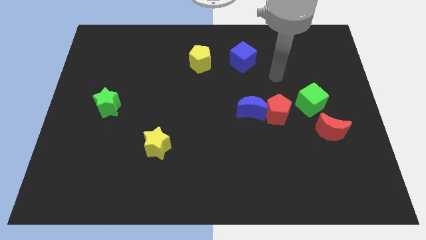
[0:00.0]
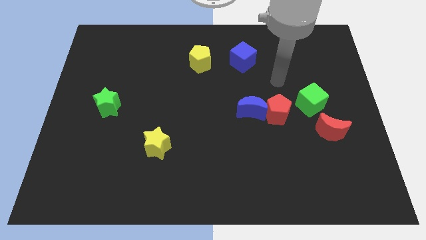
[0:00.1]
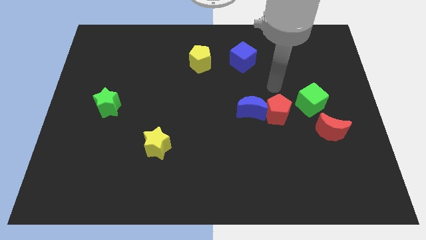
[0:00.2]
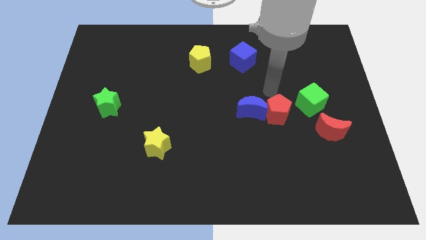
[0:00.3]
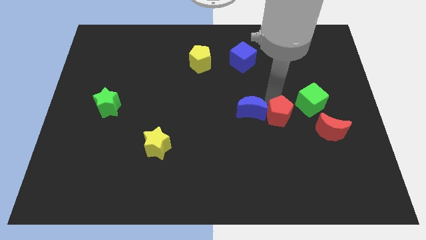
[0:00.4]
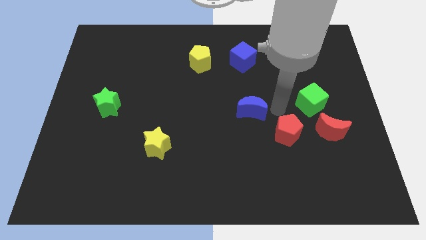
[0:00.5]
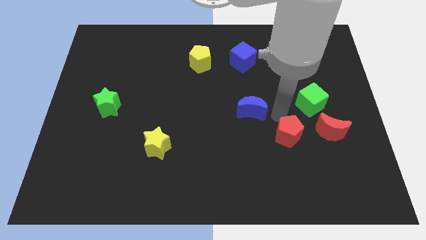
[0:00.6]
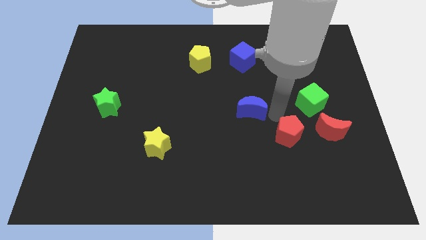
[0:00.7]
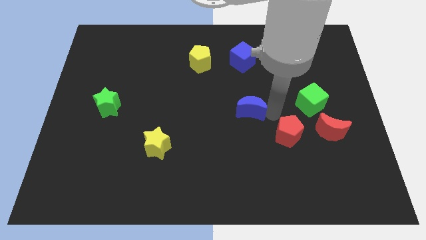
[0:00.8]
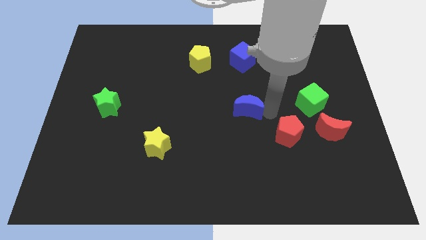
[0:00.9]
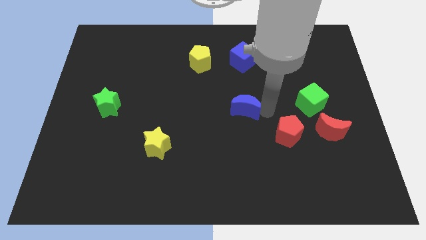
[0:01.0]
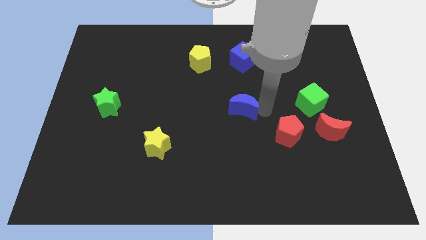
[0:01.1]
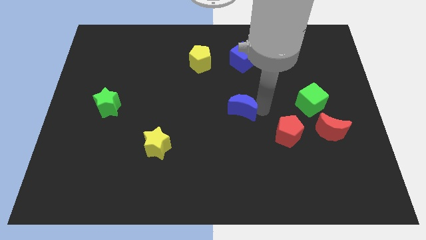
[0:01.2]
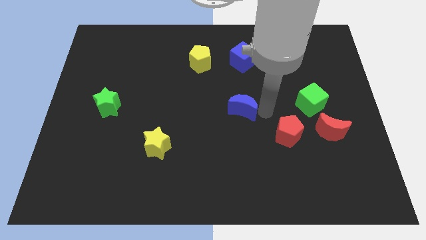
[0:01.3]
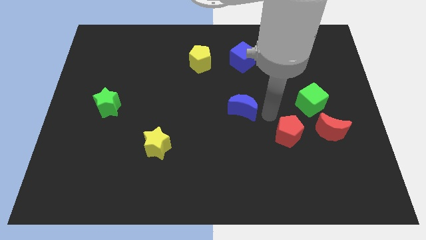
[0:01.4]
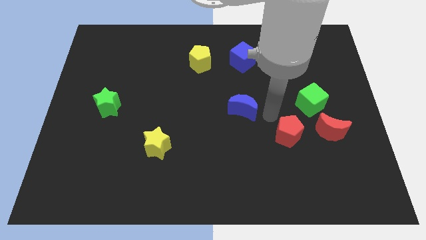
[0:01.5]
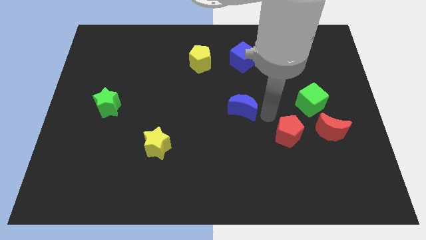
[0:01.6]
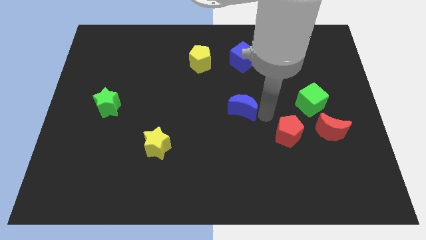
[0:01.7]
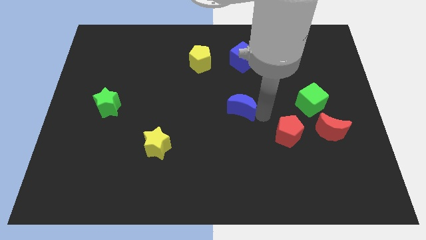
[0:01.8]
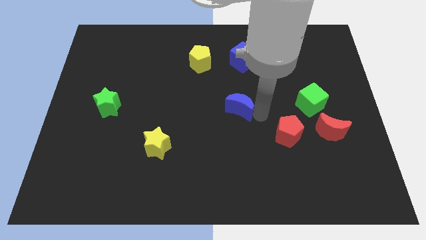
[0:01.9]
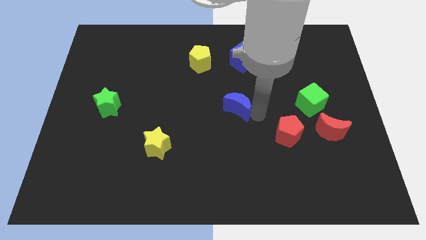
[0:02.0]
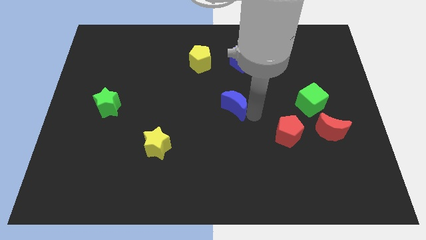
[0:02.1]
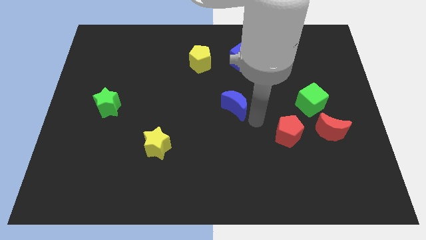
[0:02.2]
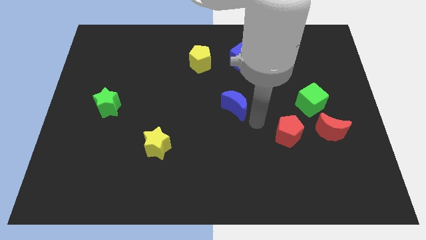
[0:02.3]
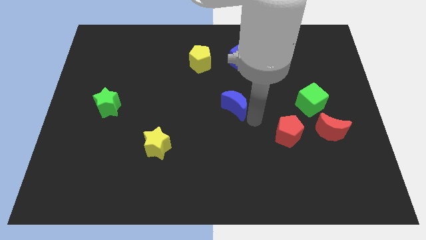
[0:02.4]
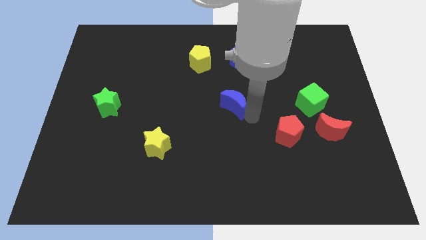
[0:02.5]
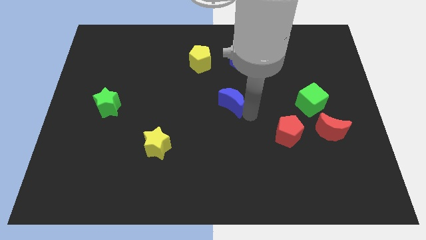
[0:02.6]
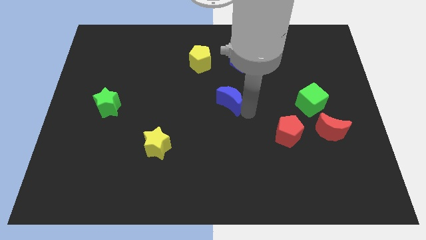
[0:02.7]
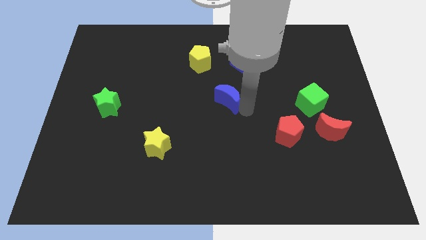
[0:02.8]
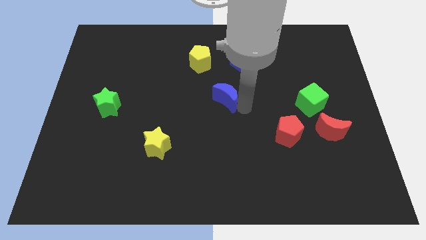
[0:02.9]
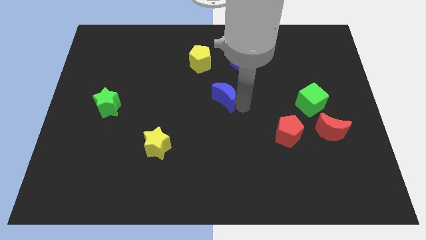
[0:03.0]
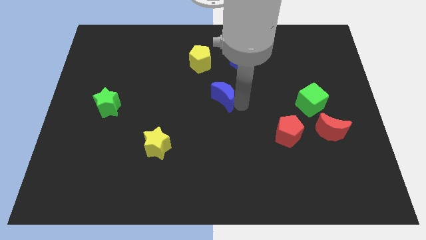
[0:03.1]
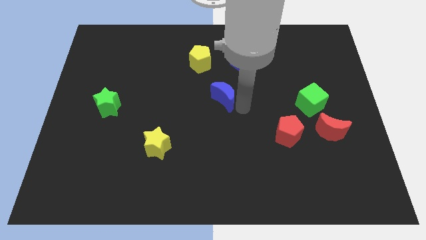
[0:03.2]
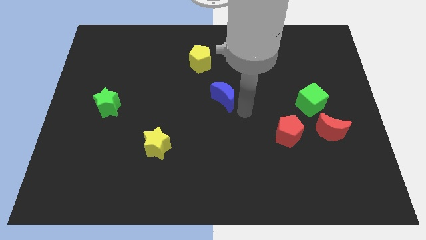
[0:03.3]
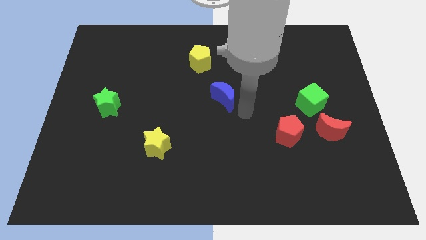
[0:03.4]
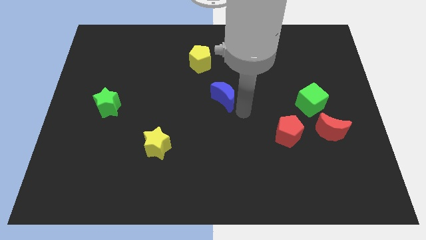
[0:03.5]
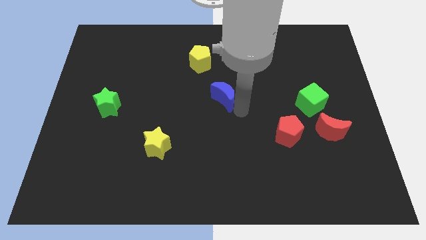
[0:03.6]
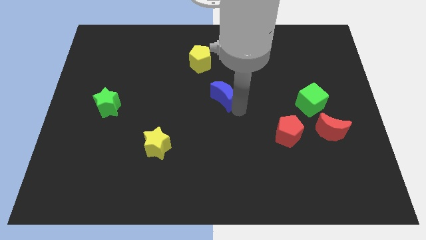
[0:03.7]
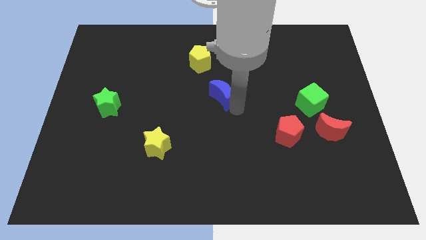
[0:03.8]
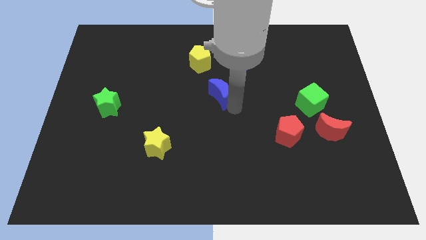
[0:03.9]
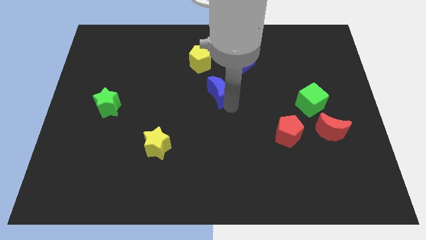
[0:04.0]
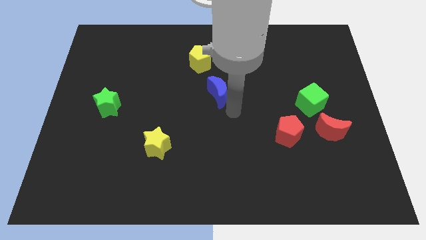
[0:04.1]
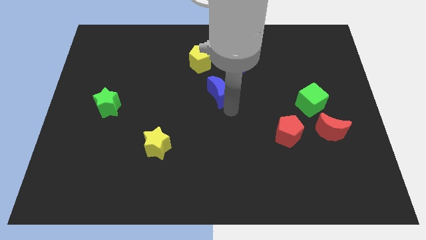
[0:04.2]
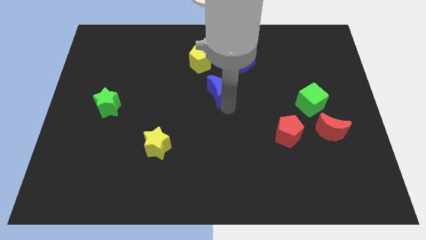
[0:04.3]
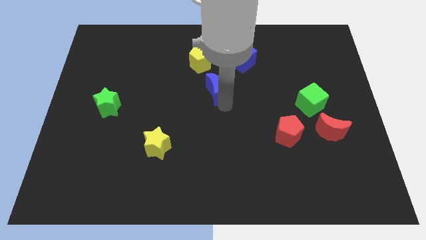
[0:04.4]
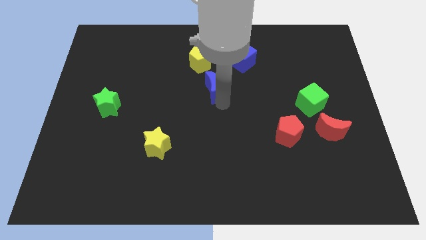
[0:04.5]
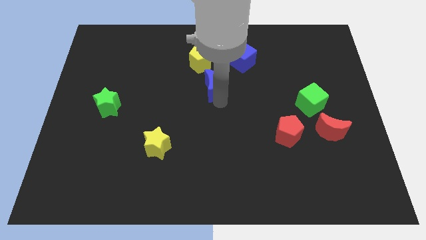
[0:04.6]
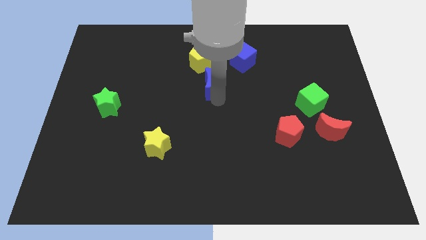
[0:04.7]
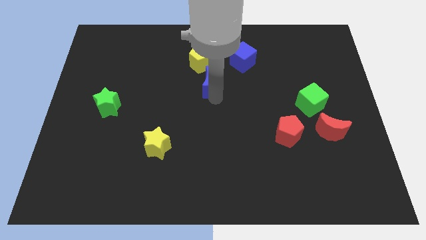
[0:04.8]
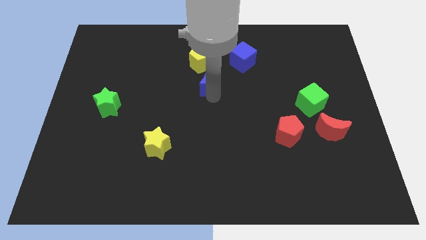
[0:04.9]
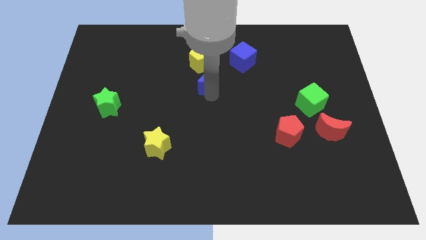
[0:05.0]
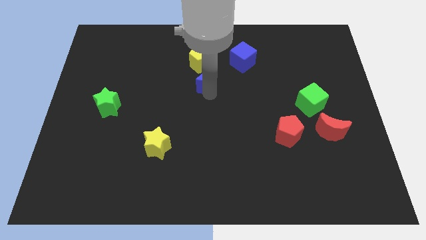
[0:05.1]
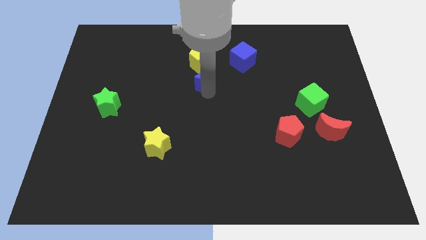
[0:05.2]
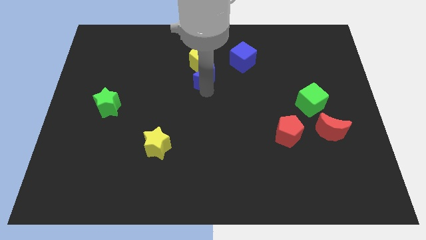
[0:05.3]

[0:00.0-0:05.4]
put the blue moon to the yellow pentagon

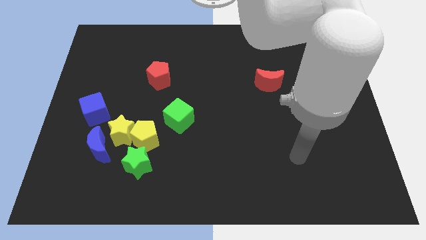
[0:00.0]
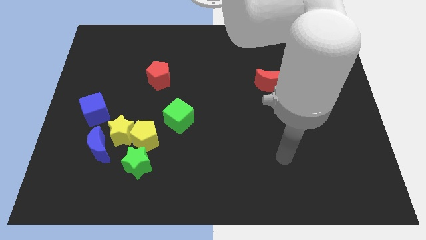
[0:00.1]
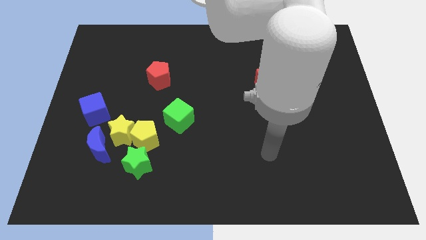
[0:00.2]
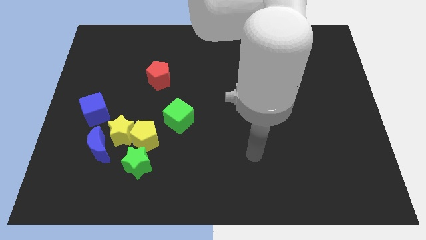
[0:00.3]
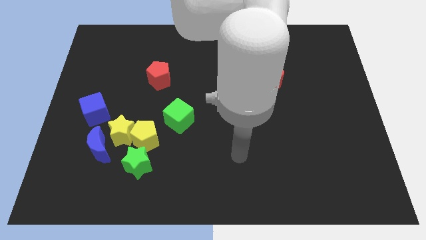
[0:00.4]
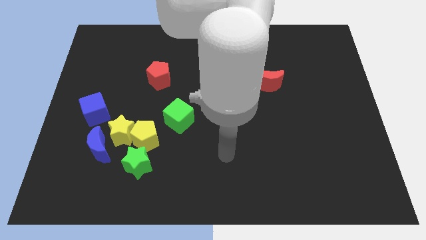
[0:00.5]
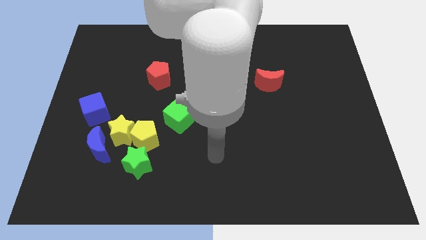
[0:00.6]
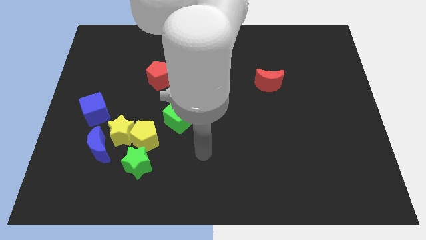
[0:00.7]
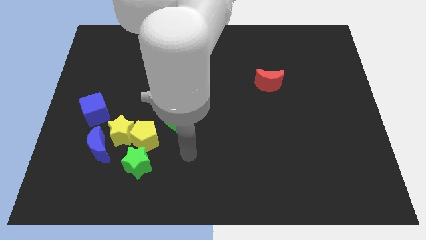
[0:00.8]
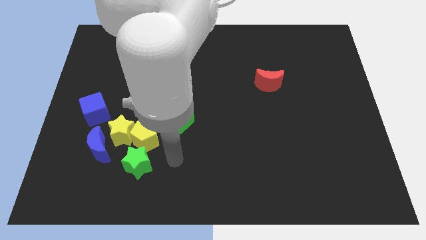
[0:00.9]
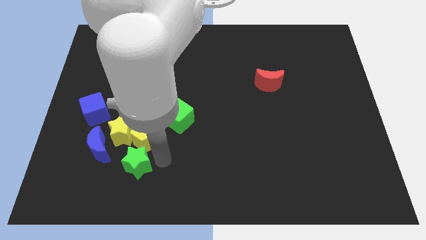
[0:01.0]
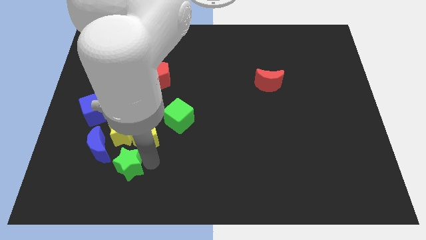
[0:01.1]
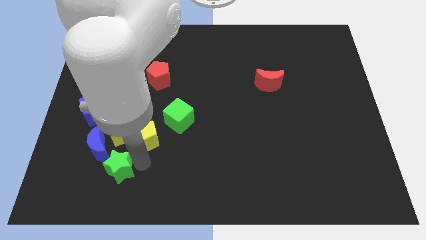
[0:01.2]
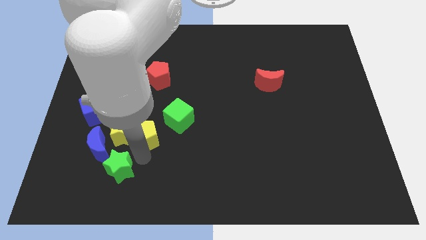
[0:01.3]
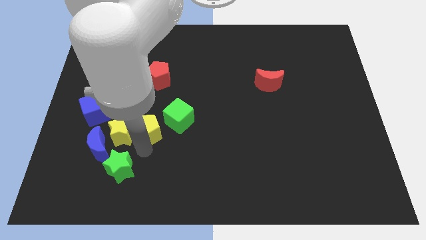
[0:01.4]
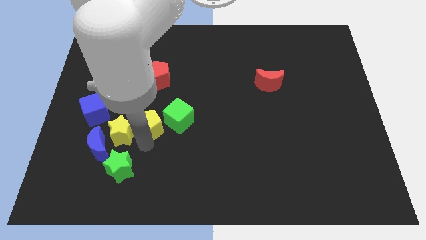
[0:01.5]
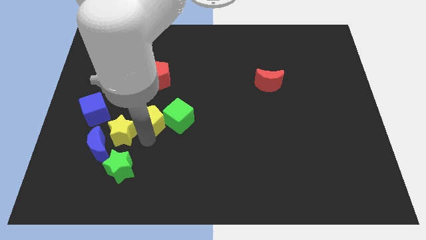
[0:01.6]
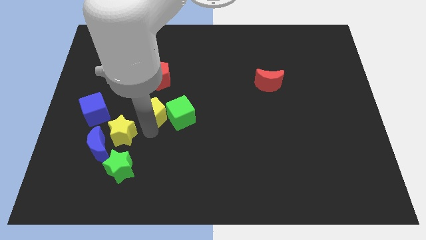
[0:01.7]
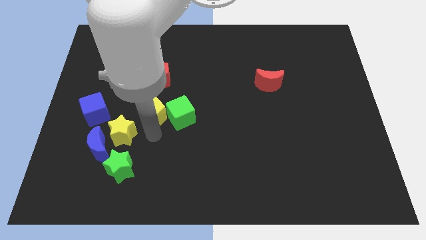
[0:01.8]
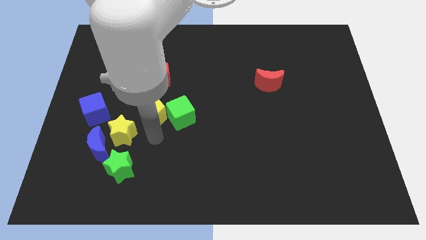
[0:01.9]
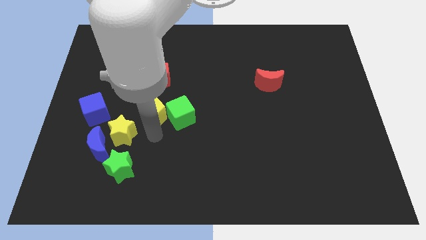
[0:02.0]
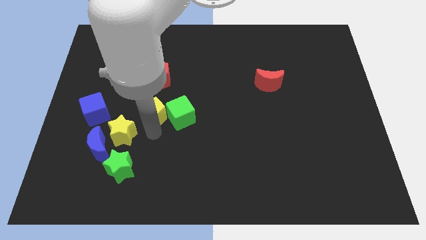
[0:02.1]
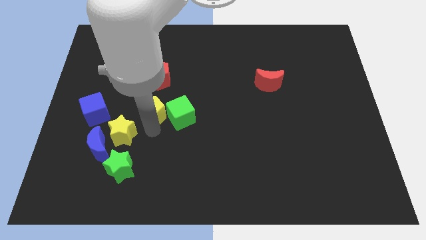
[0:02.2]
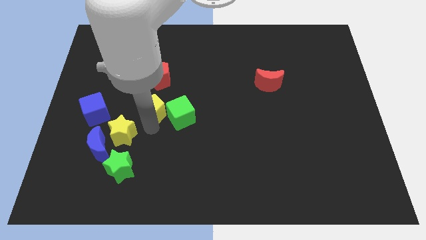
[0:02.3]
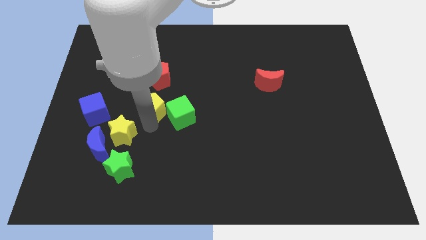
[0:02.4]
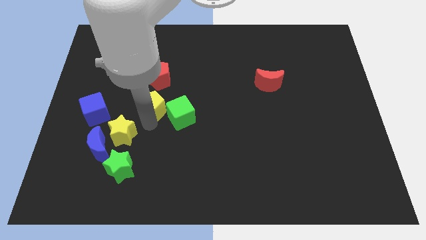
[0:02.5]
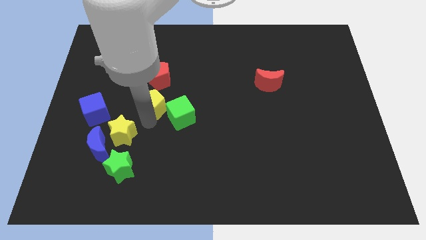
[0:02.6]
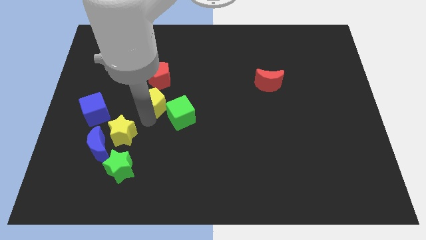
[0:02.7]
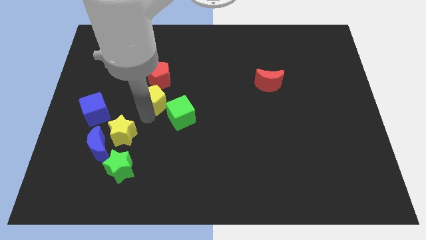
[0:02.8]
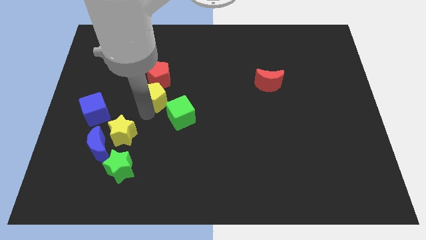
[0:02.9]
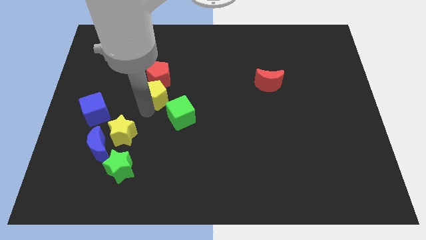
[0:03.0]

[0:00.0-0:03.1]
move the yellow pentagon close to the red pentagon
